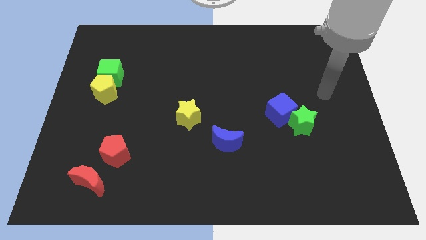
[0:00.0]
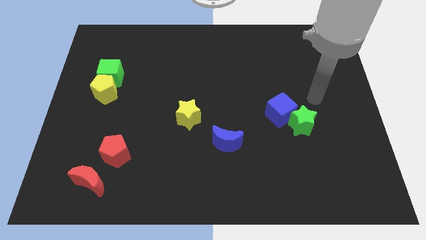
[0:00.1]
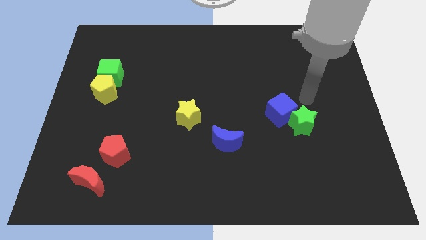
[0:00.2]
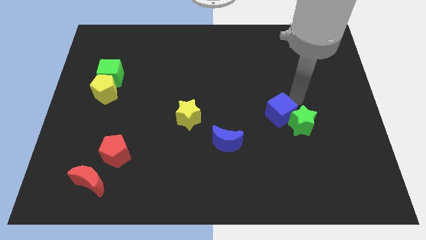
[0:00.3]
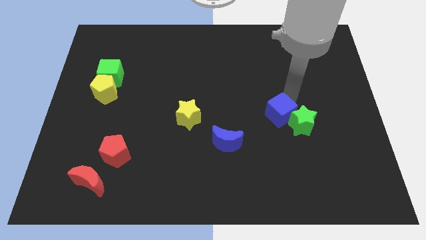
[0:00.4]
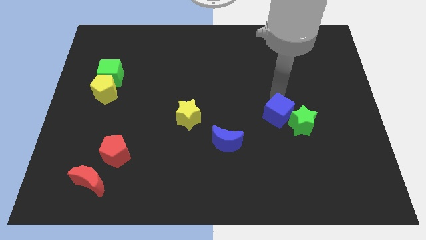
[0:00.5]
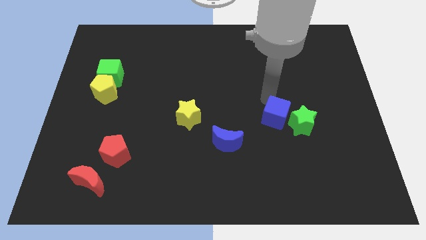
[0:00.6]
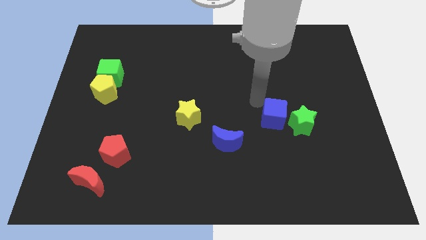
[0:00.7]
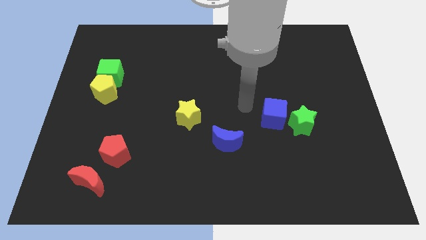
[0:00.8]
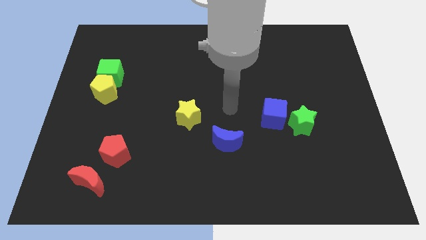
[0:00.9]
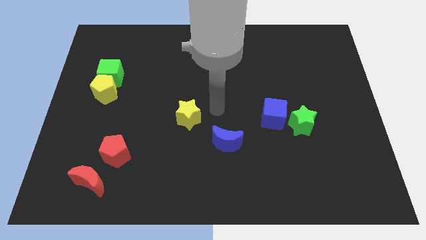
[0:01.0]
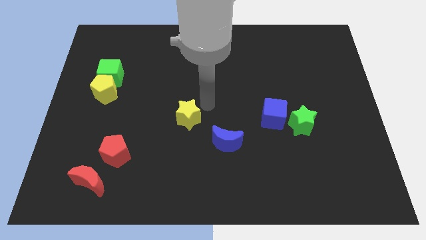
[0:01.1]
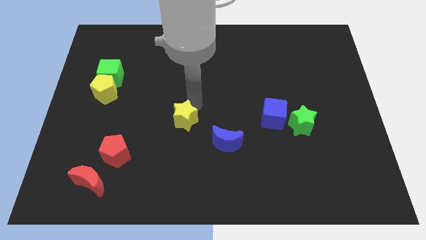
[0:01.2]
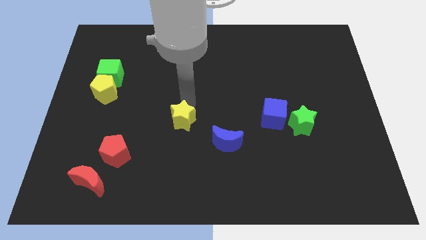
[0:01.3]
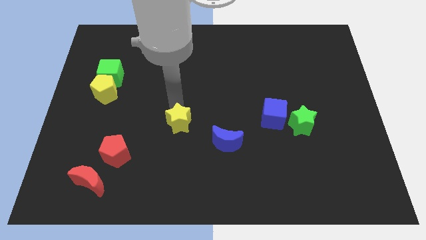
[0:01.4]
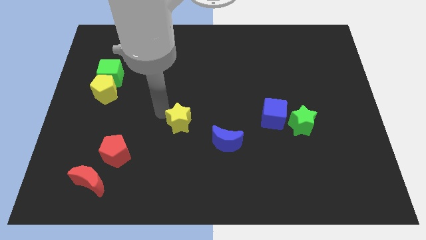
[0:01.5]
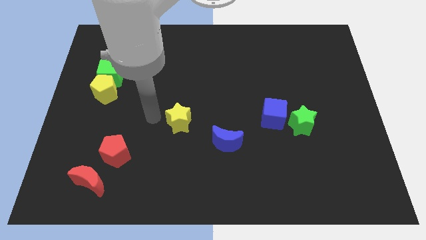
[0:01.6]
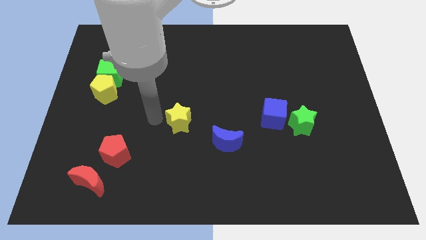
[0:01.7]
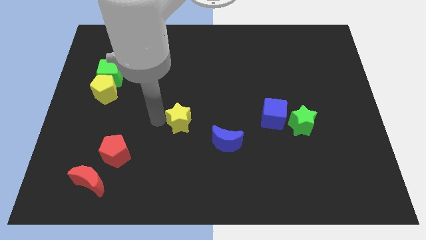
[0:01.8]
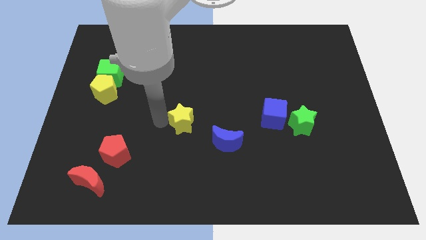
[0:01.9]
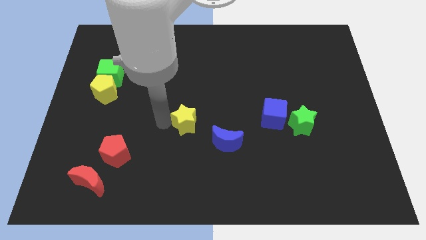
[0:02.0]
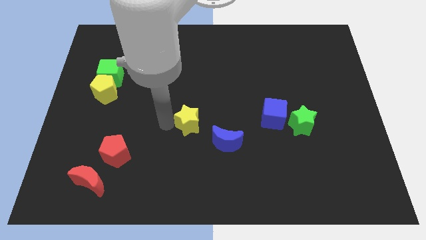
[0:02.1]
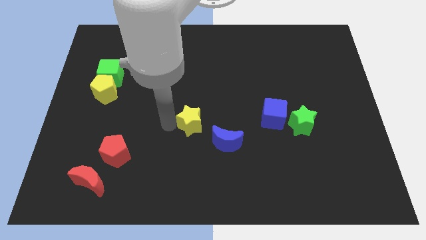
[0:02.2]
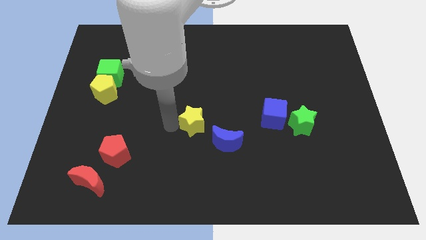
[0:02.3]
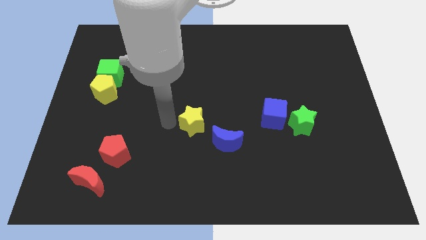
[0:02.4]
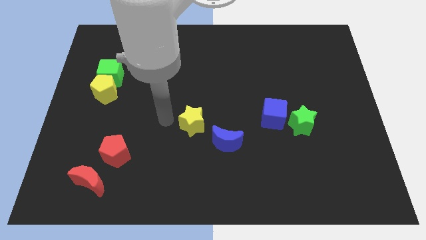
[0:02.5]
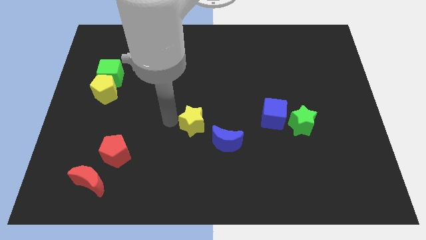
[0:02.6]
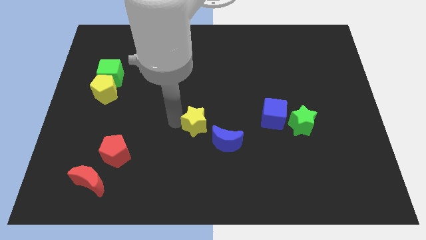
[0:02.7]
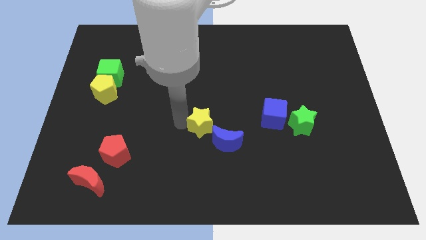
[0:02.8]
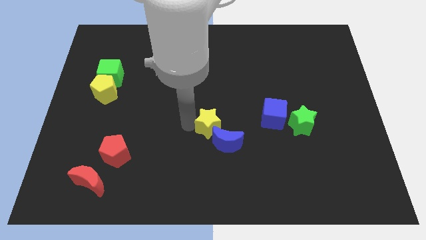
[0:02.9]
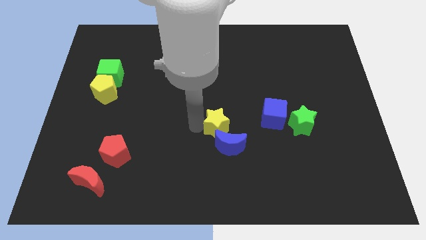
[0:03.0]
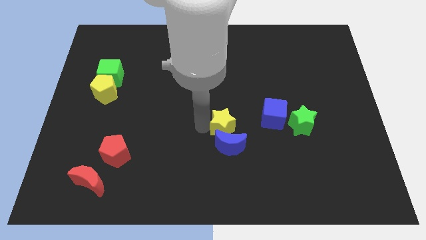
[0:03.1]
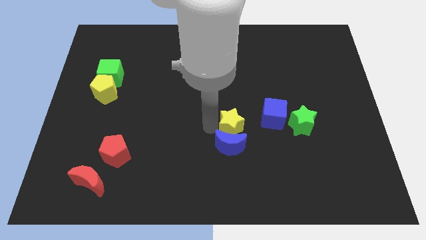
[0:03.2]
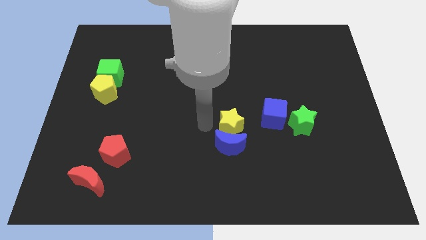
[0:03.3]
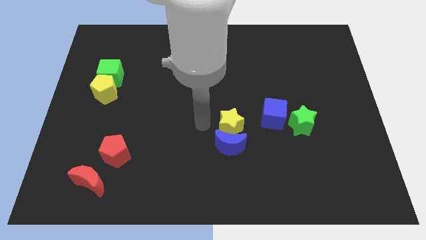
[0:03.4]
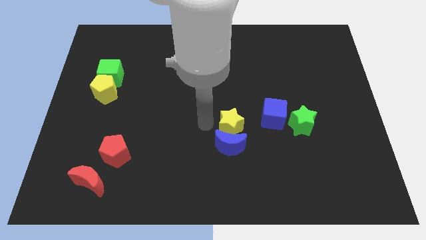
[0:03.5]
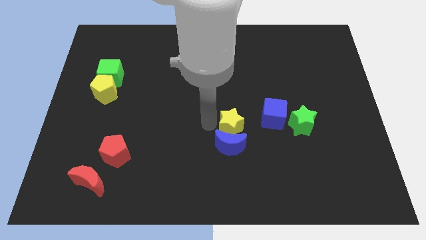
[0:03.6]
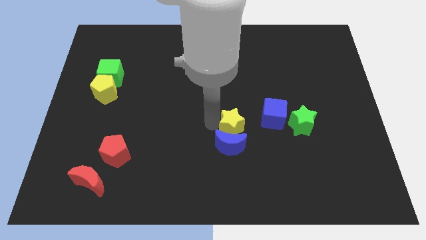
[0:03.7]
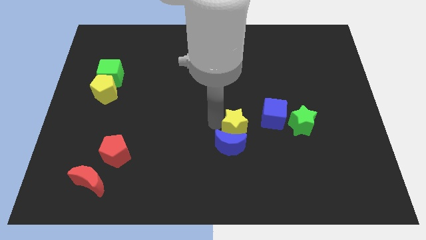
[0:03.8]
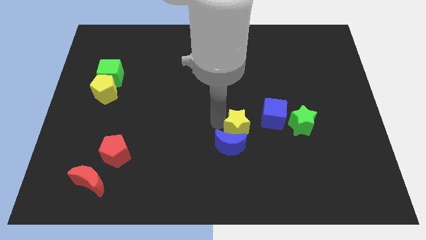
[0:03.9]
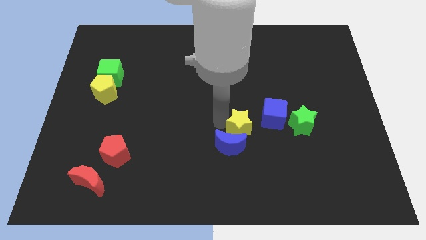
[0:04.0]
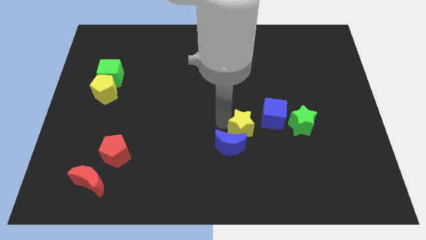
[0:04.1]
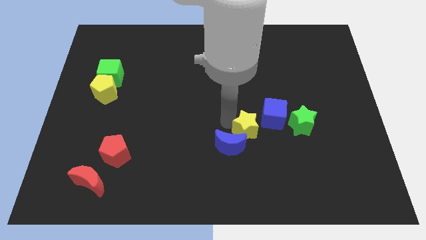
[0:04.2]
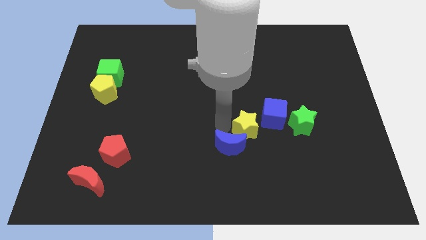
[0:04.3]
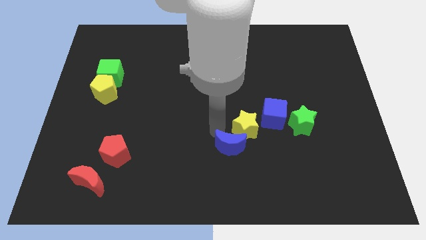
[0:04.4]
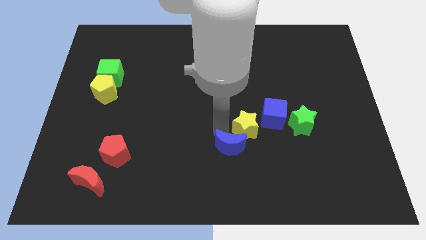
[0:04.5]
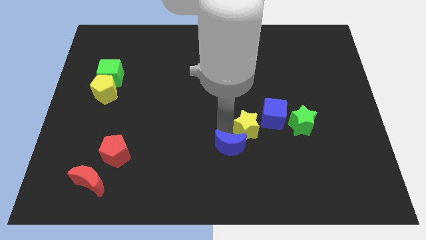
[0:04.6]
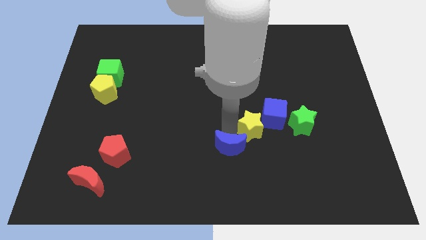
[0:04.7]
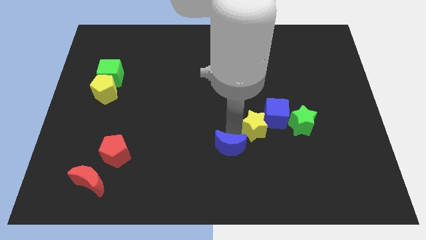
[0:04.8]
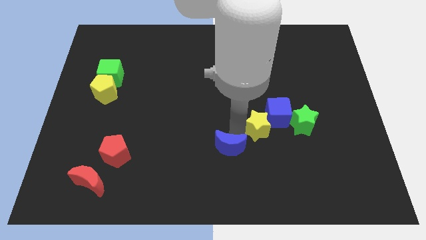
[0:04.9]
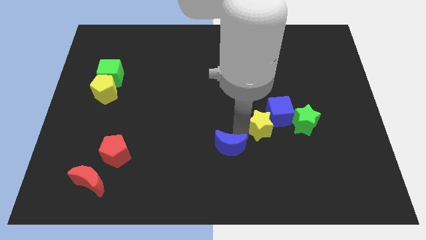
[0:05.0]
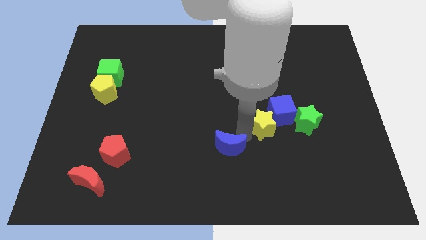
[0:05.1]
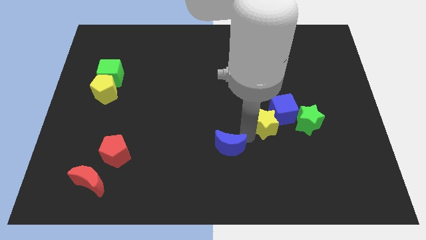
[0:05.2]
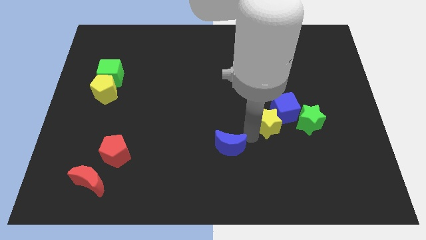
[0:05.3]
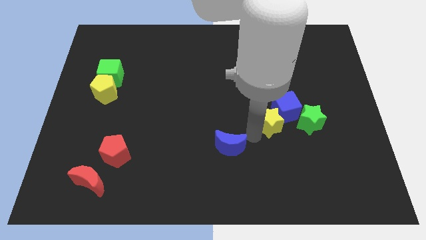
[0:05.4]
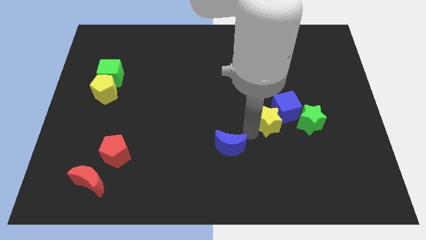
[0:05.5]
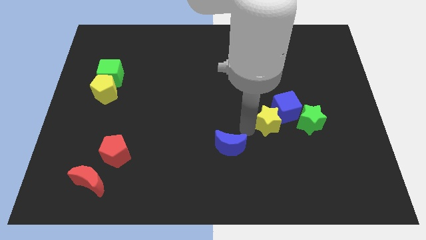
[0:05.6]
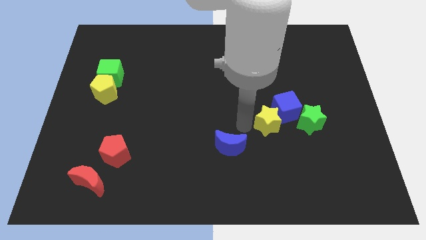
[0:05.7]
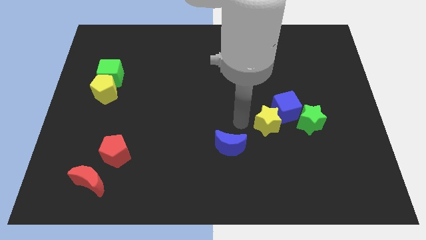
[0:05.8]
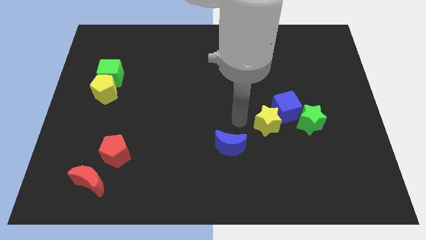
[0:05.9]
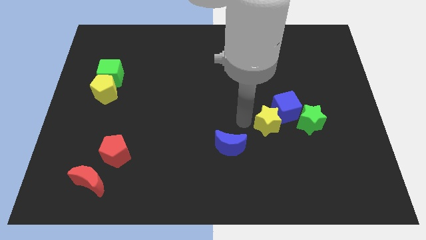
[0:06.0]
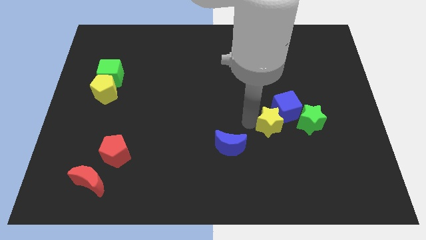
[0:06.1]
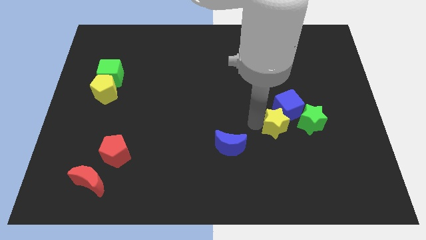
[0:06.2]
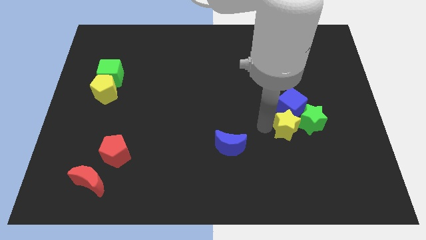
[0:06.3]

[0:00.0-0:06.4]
move the yellow star to the green star

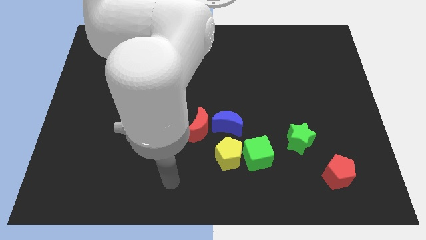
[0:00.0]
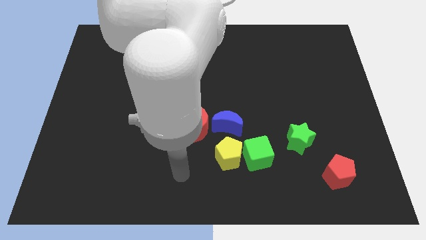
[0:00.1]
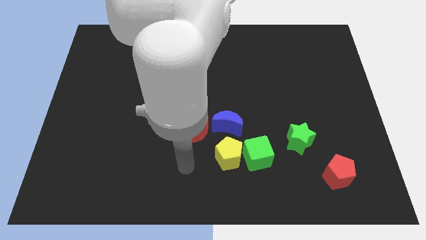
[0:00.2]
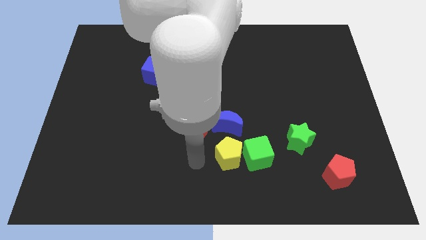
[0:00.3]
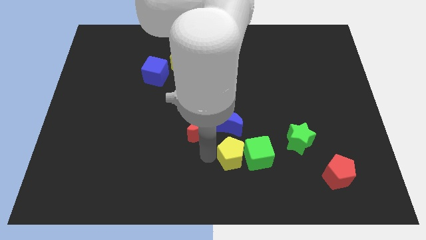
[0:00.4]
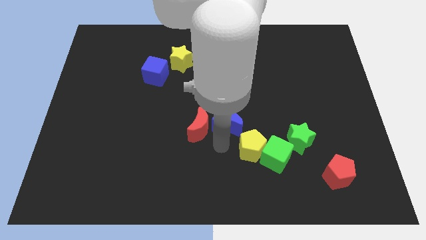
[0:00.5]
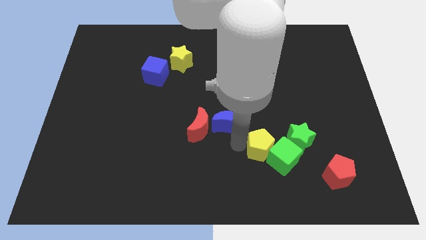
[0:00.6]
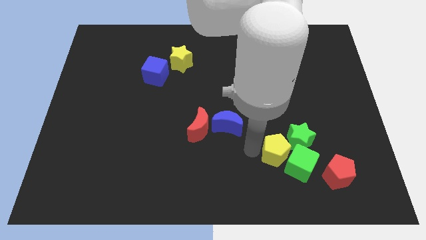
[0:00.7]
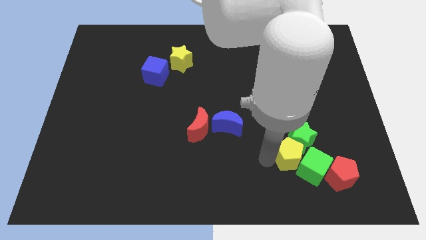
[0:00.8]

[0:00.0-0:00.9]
put the green cube close to the red pentagon
